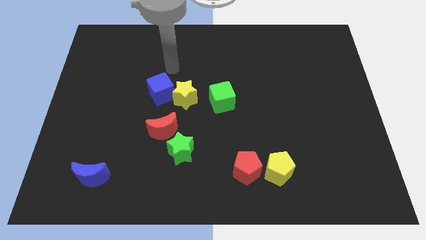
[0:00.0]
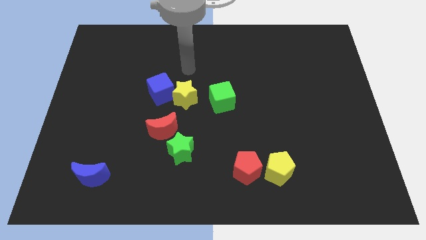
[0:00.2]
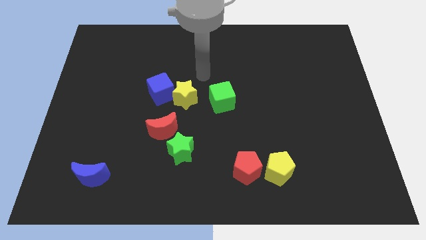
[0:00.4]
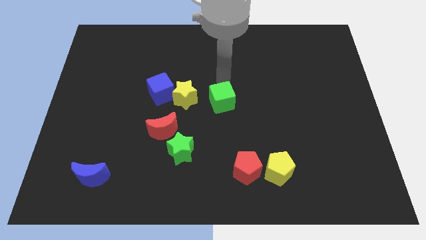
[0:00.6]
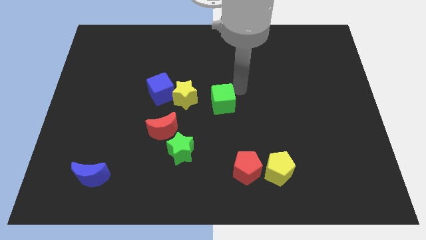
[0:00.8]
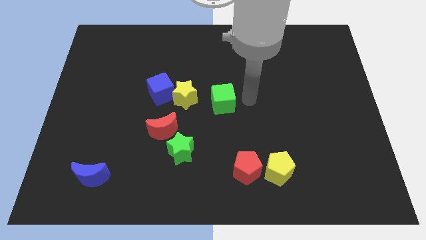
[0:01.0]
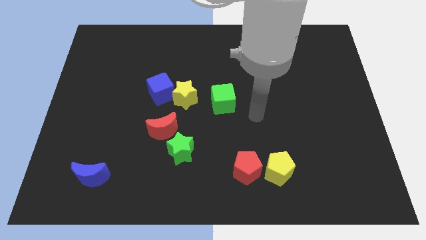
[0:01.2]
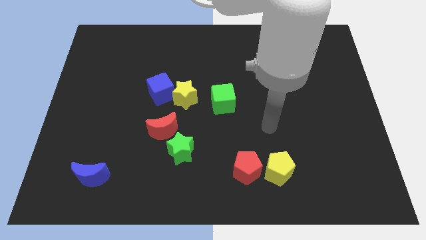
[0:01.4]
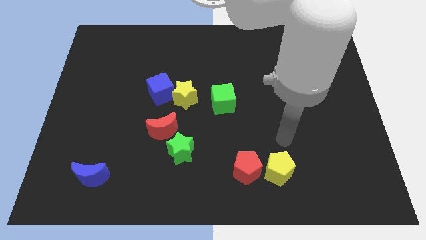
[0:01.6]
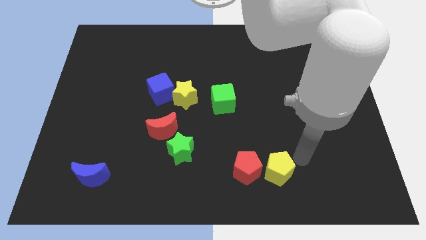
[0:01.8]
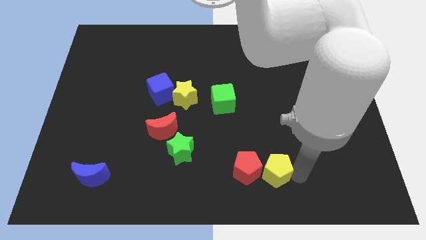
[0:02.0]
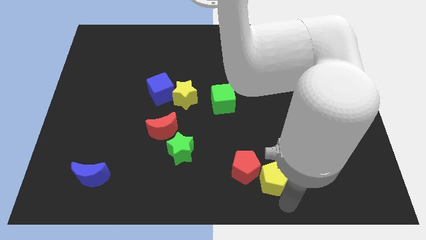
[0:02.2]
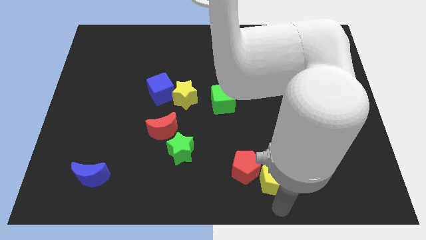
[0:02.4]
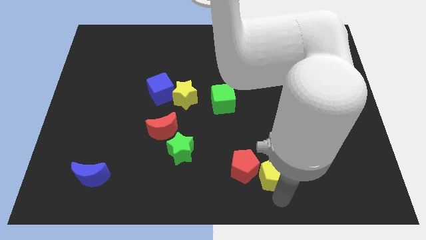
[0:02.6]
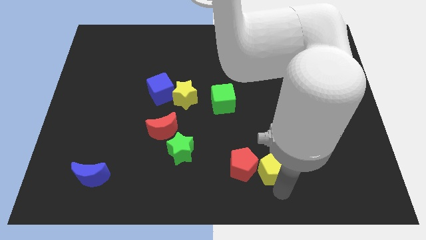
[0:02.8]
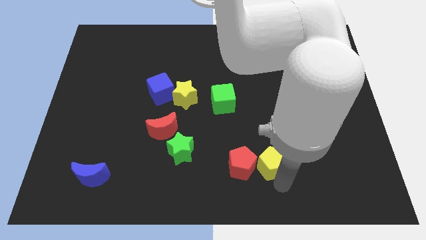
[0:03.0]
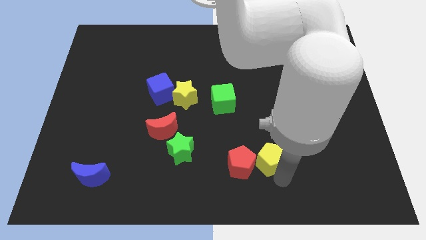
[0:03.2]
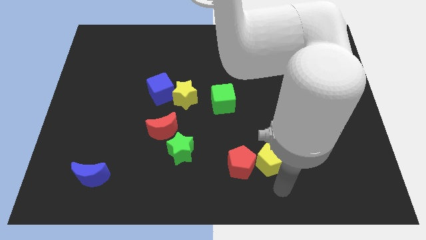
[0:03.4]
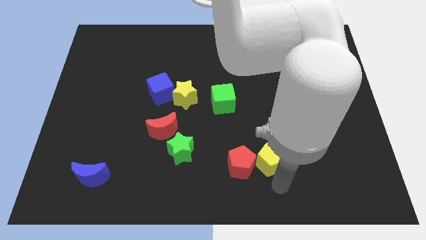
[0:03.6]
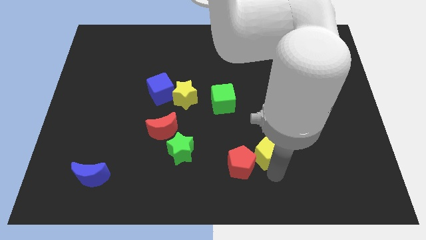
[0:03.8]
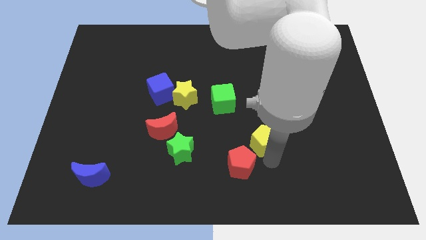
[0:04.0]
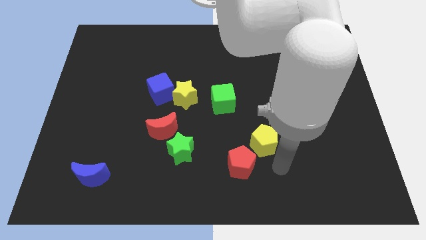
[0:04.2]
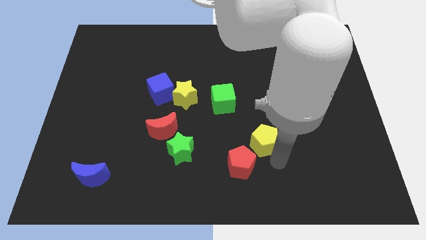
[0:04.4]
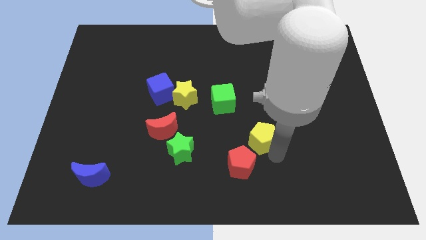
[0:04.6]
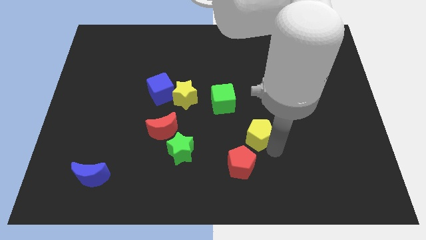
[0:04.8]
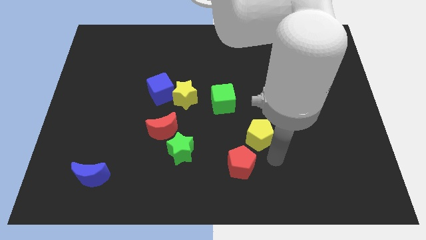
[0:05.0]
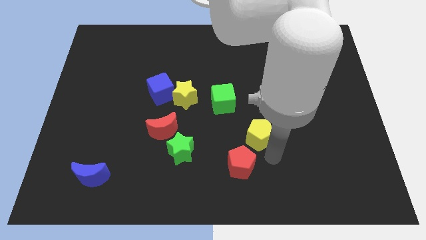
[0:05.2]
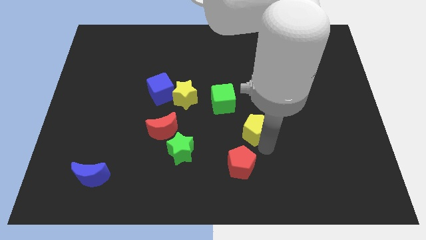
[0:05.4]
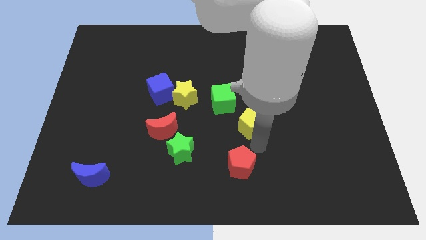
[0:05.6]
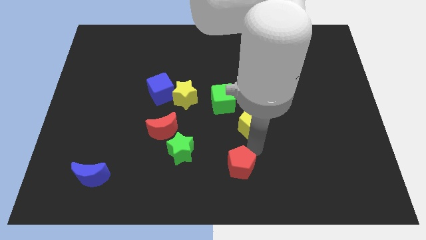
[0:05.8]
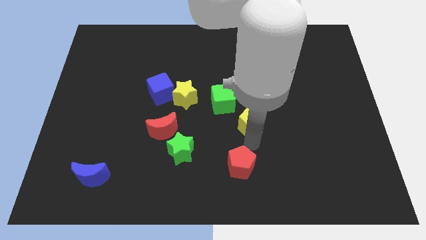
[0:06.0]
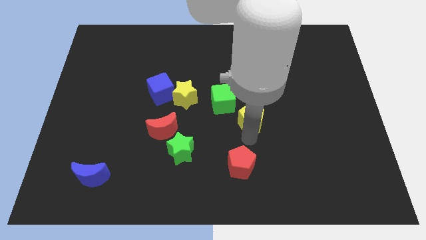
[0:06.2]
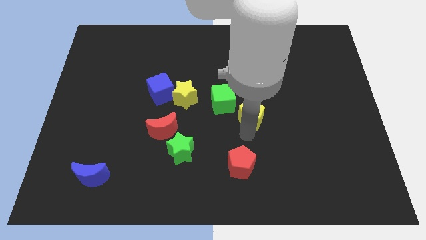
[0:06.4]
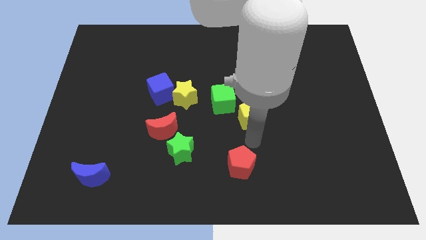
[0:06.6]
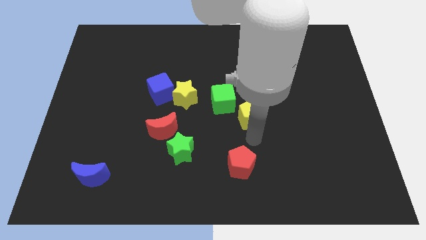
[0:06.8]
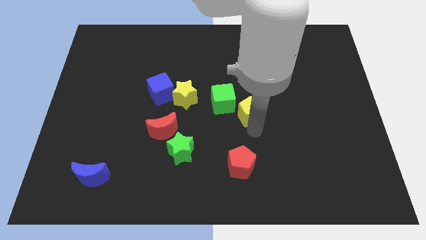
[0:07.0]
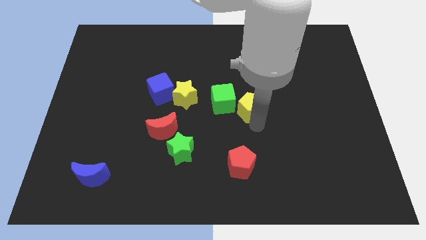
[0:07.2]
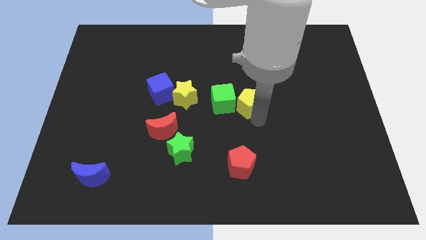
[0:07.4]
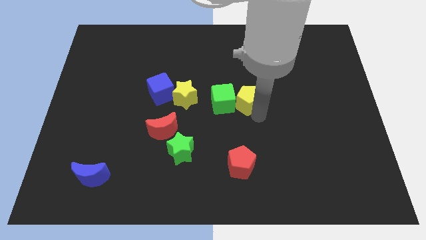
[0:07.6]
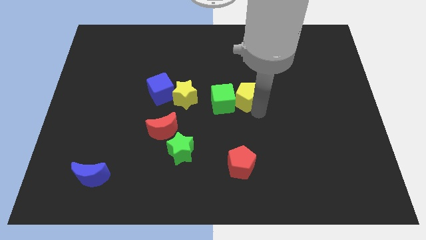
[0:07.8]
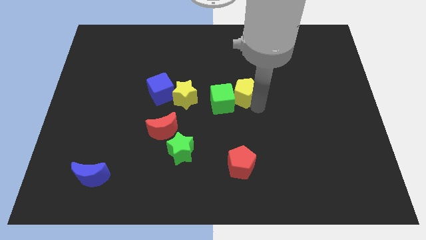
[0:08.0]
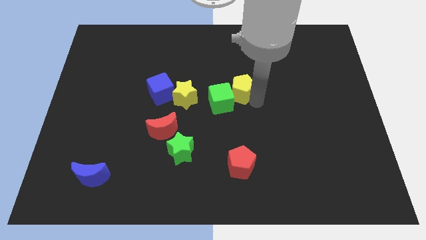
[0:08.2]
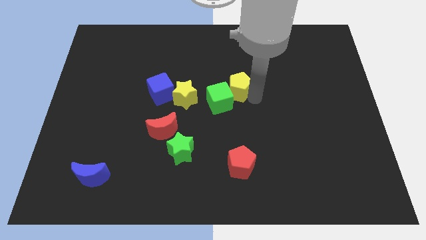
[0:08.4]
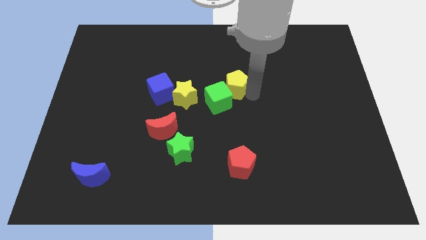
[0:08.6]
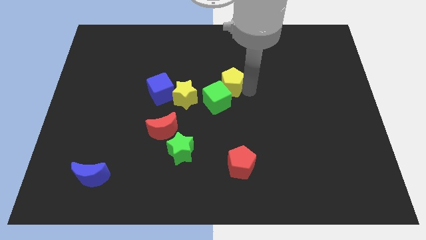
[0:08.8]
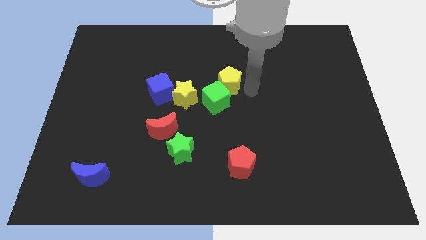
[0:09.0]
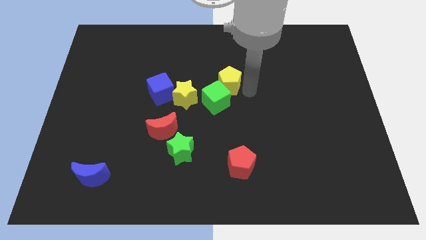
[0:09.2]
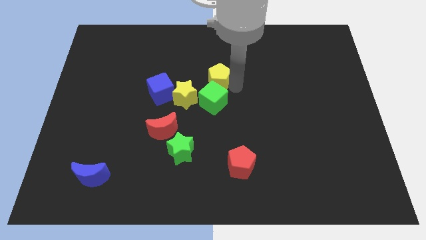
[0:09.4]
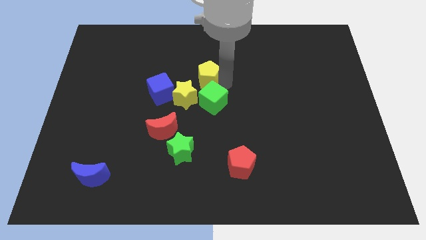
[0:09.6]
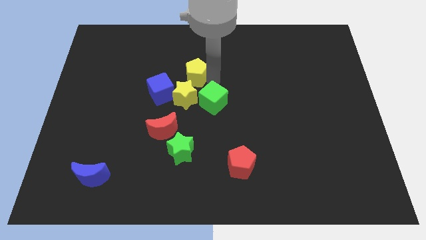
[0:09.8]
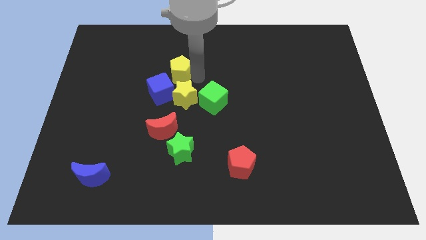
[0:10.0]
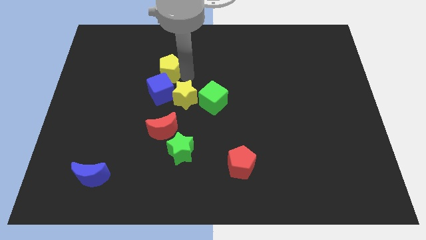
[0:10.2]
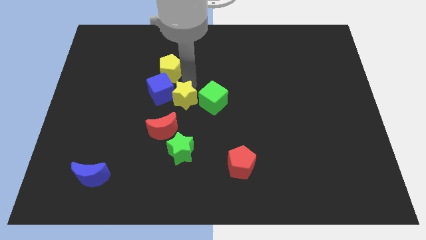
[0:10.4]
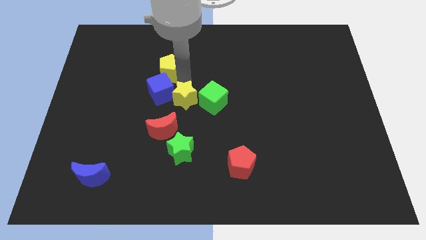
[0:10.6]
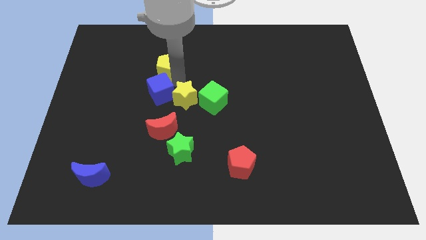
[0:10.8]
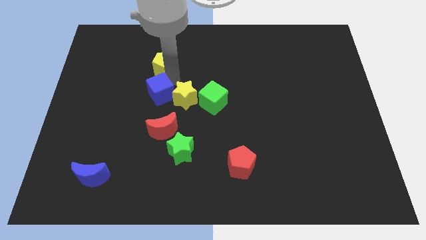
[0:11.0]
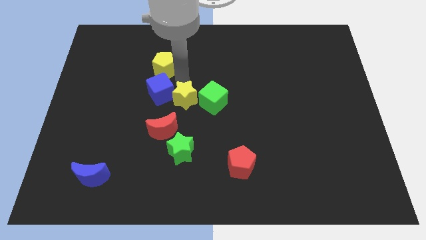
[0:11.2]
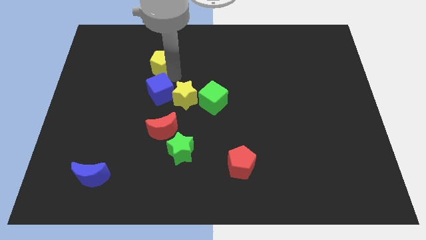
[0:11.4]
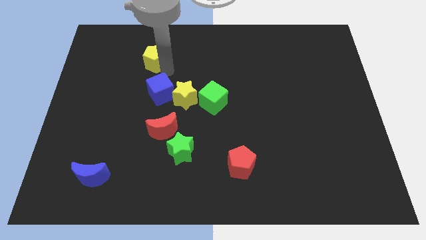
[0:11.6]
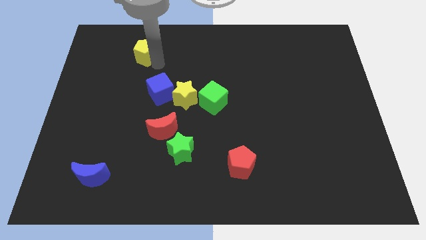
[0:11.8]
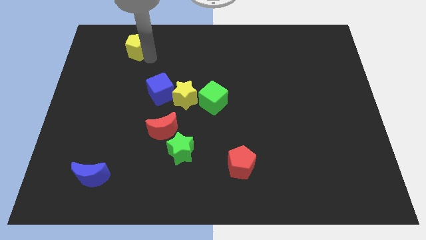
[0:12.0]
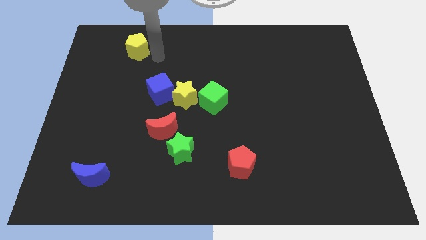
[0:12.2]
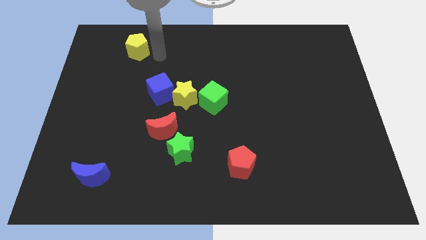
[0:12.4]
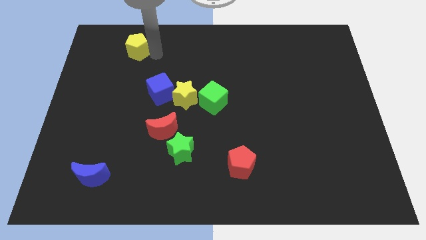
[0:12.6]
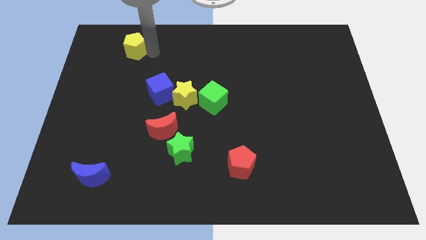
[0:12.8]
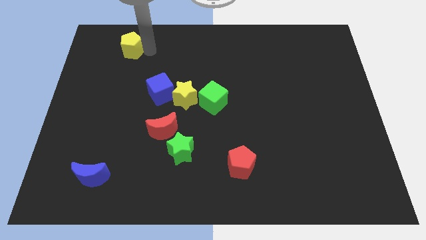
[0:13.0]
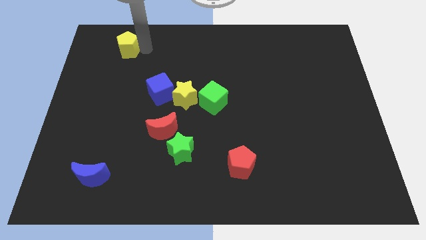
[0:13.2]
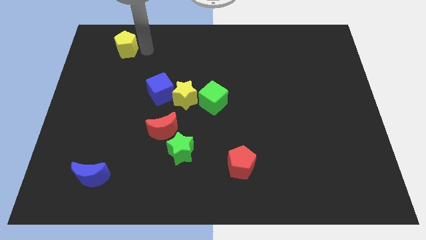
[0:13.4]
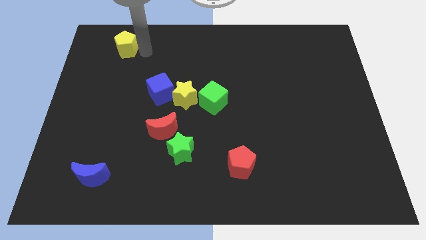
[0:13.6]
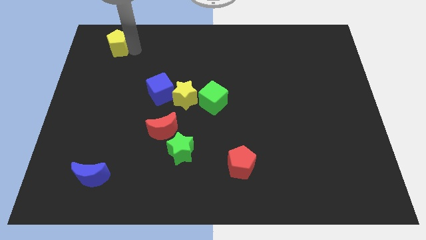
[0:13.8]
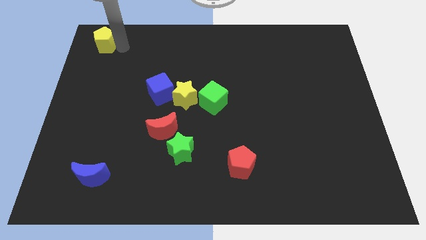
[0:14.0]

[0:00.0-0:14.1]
slide the yellow pentagon to the top left of the board

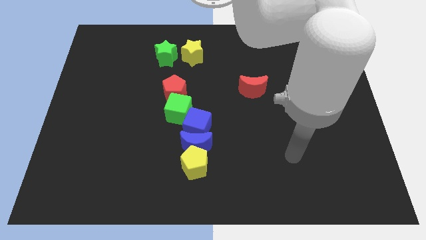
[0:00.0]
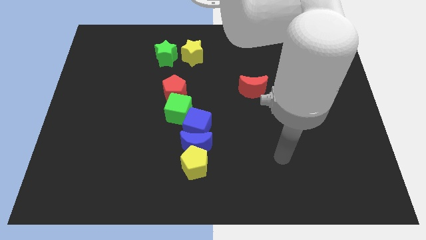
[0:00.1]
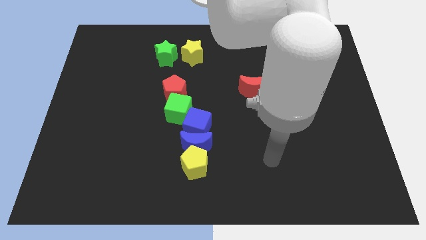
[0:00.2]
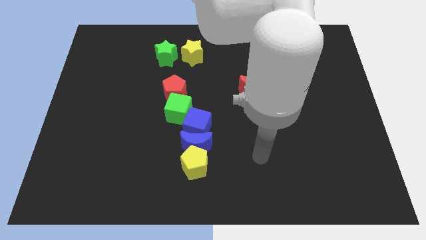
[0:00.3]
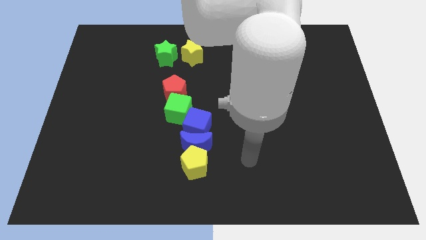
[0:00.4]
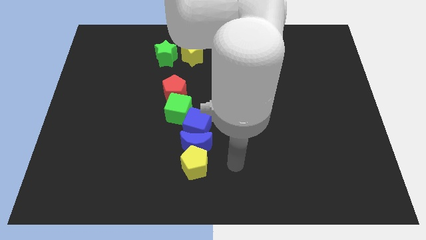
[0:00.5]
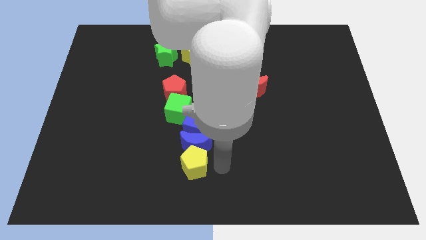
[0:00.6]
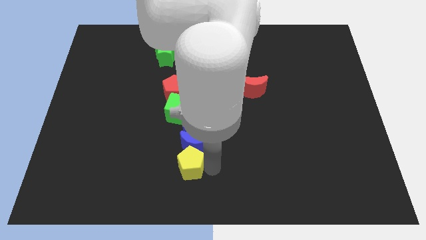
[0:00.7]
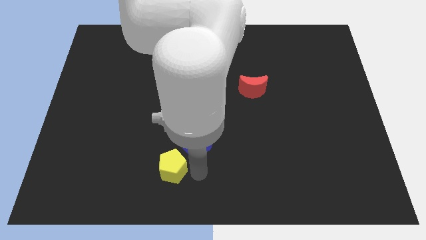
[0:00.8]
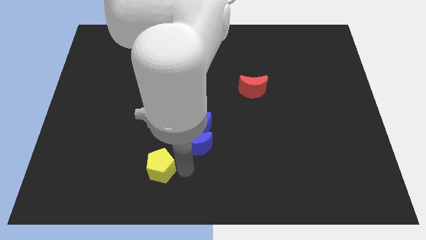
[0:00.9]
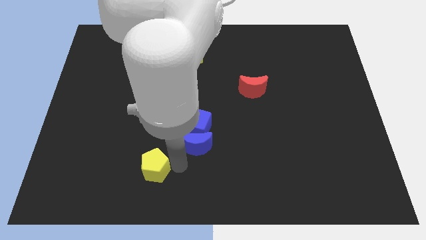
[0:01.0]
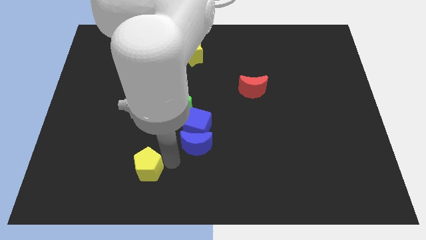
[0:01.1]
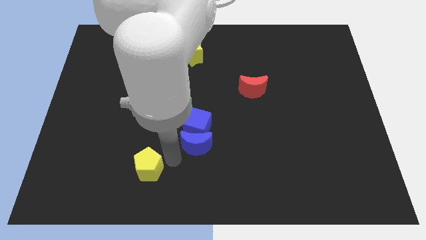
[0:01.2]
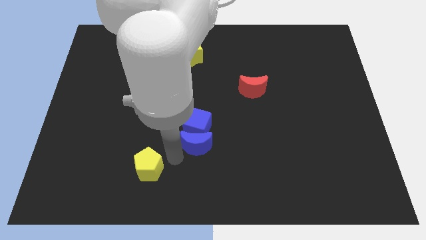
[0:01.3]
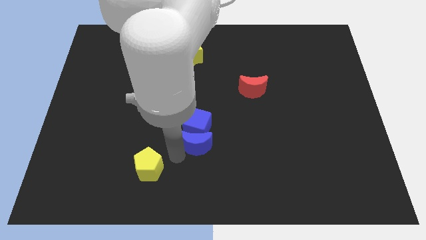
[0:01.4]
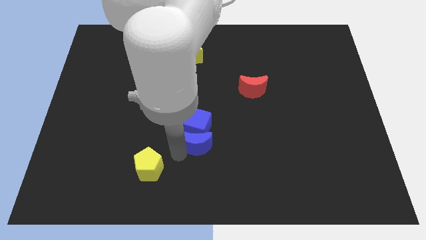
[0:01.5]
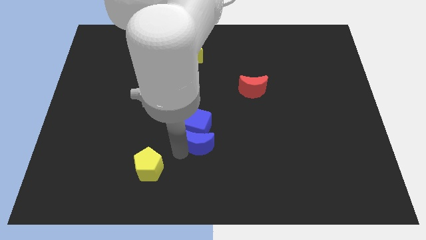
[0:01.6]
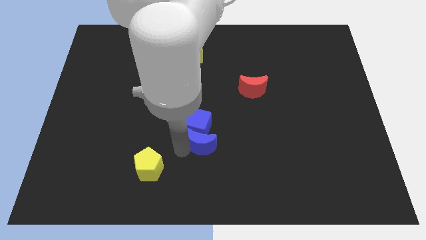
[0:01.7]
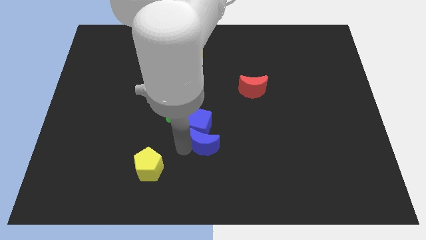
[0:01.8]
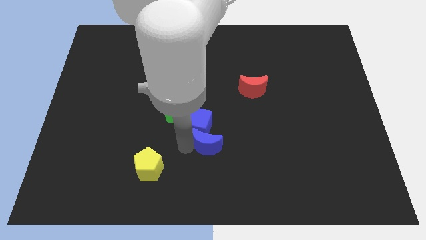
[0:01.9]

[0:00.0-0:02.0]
slide the blue moon to the middle of the board
